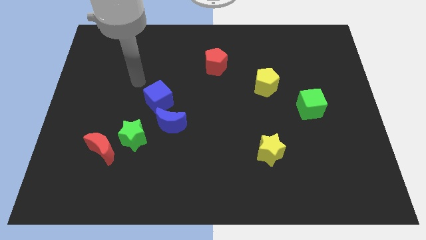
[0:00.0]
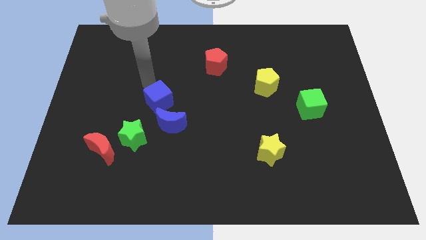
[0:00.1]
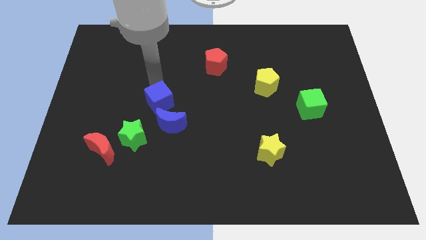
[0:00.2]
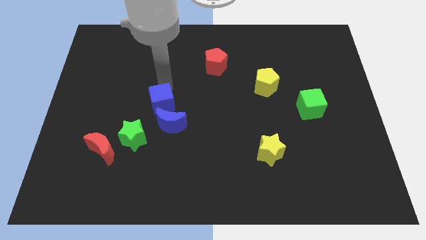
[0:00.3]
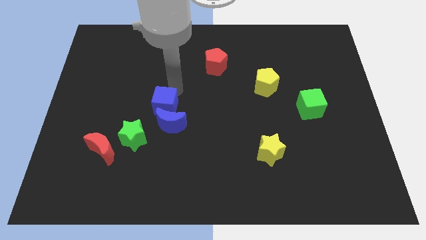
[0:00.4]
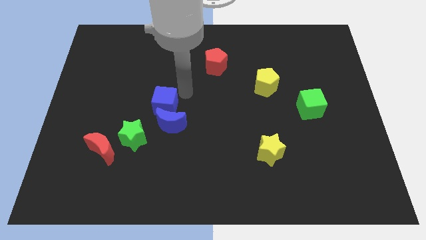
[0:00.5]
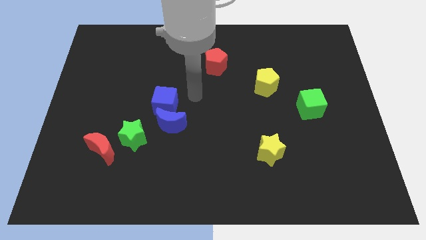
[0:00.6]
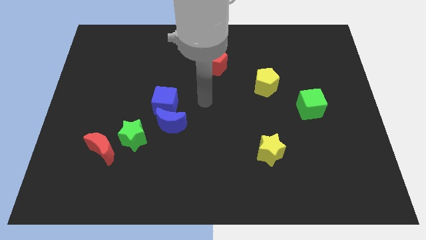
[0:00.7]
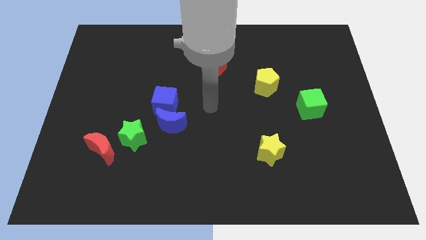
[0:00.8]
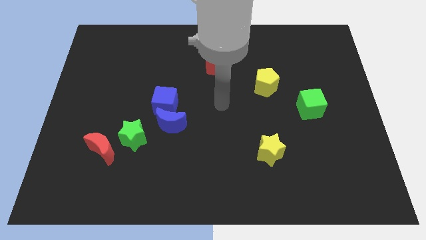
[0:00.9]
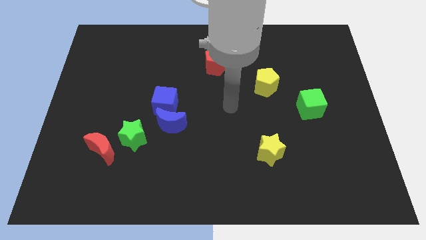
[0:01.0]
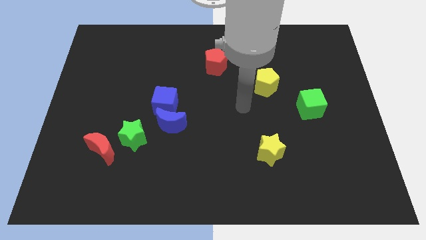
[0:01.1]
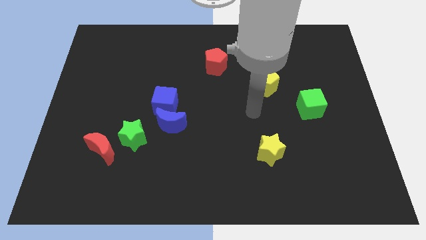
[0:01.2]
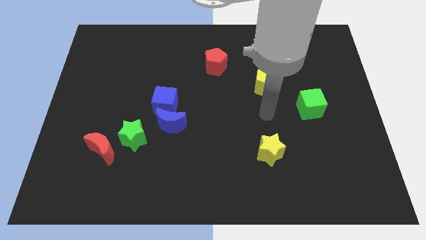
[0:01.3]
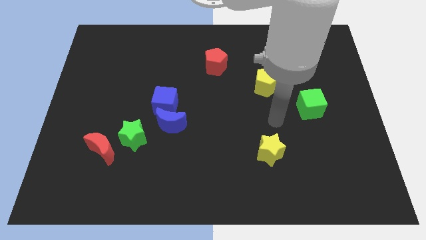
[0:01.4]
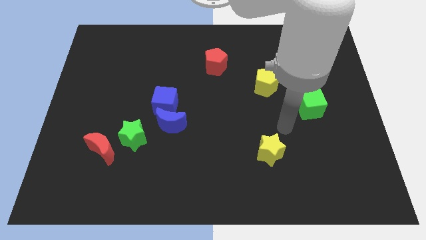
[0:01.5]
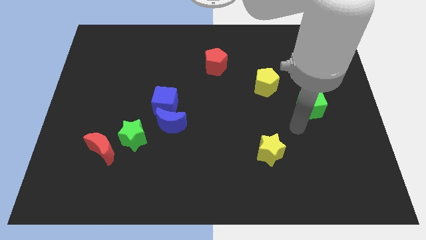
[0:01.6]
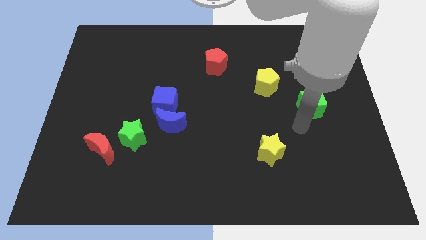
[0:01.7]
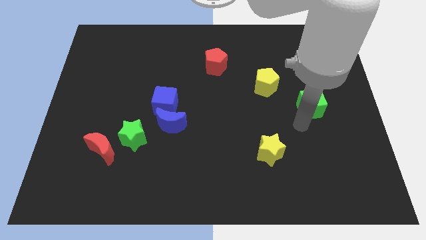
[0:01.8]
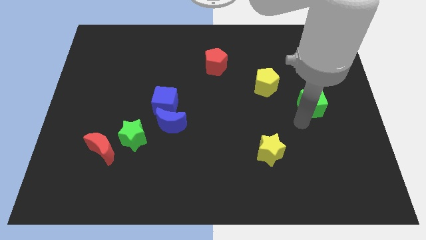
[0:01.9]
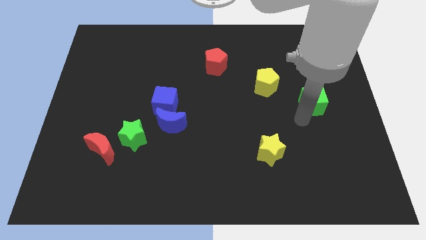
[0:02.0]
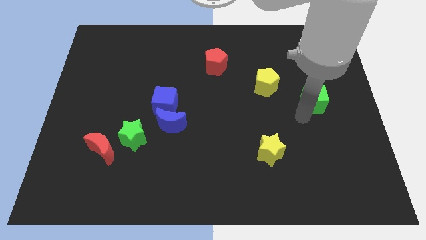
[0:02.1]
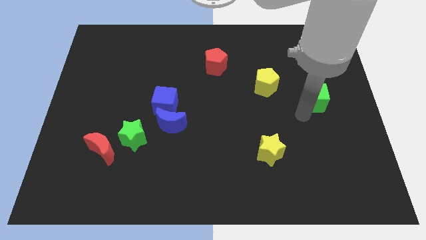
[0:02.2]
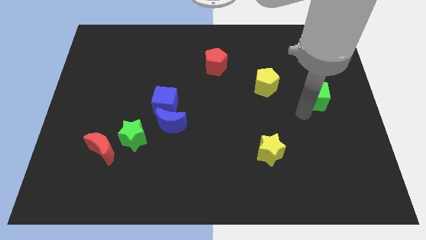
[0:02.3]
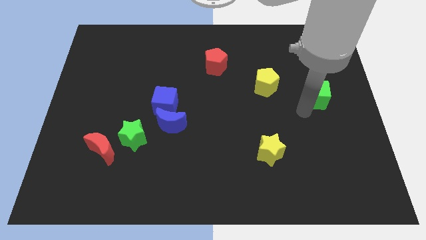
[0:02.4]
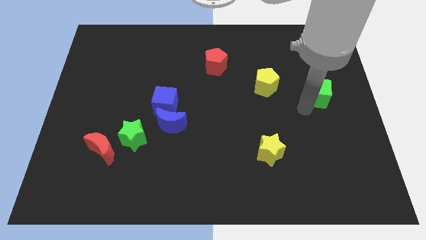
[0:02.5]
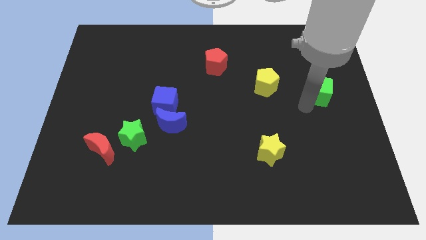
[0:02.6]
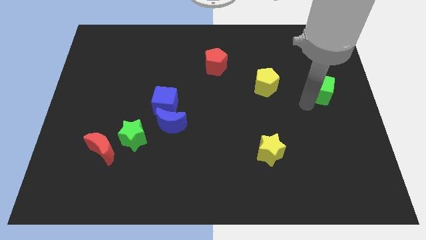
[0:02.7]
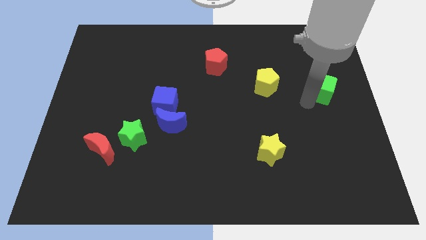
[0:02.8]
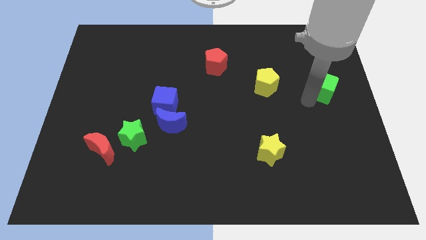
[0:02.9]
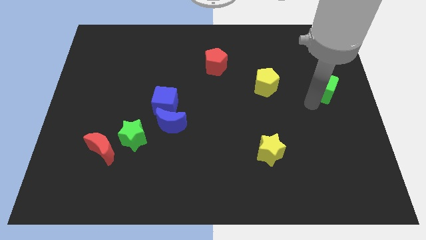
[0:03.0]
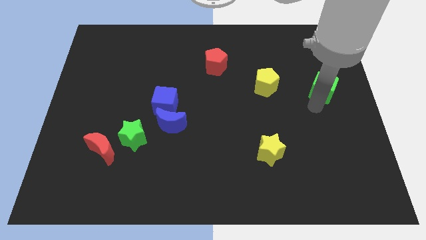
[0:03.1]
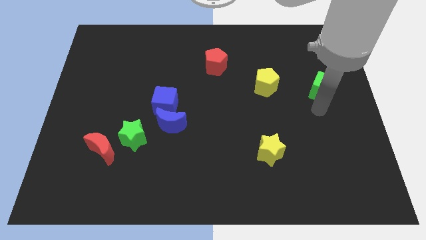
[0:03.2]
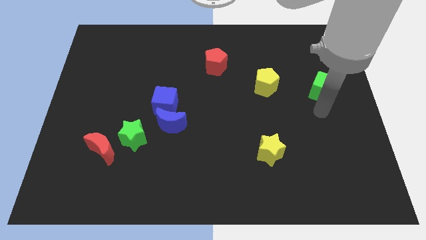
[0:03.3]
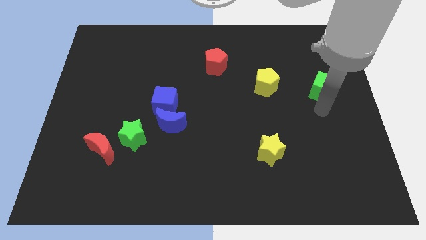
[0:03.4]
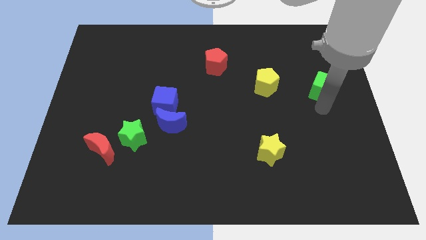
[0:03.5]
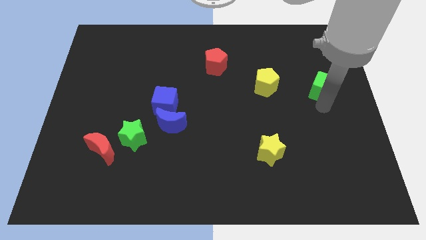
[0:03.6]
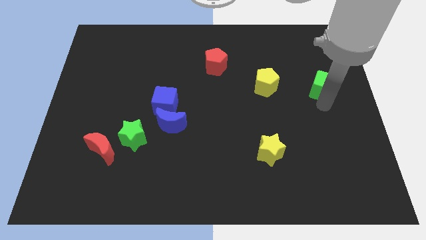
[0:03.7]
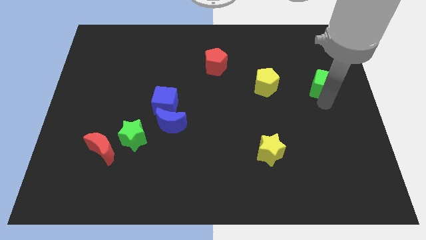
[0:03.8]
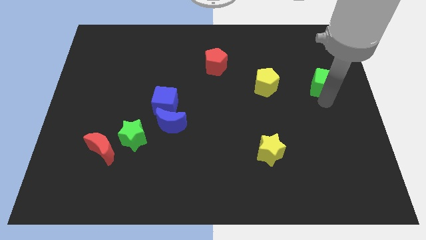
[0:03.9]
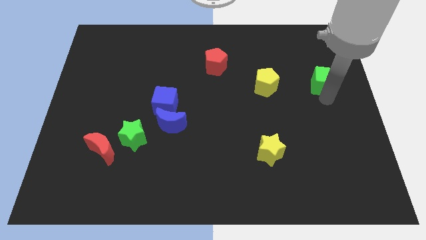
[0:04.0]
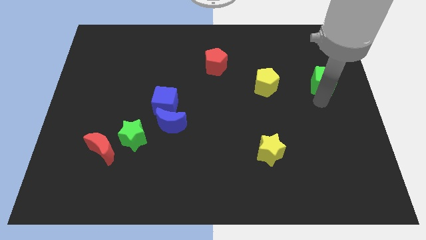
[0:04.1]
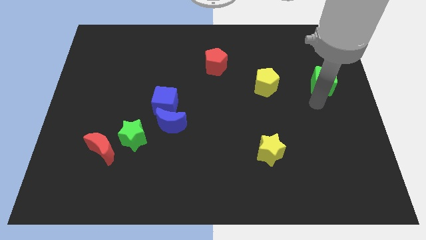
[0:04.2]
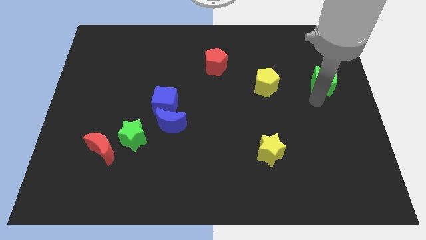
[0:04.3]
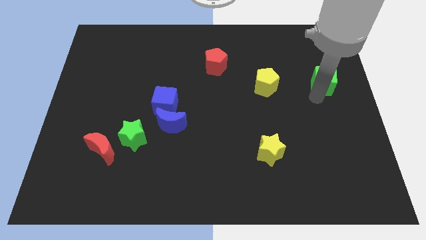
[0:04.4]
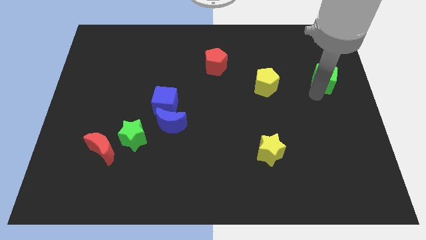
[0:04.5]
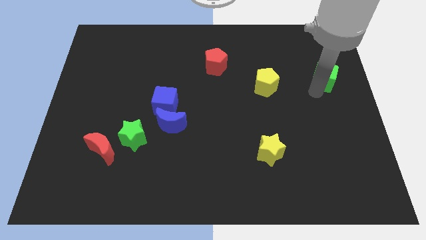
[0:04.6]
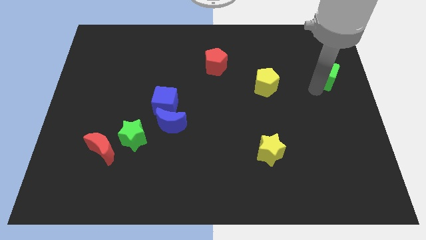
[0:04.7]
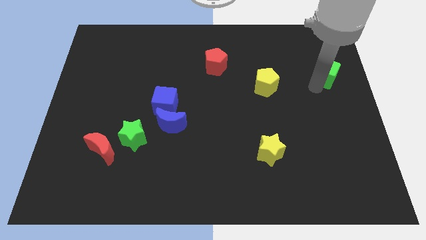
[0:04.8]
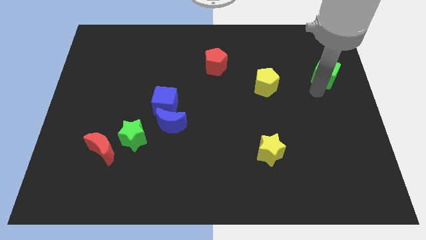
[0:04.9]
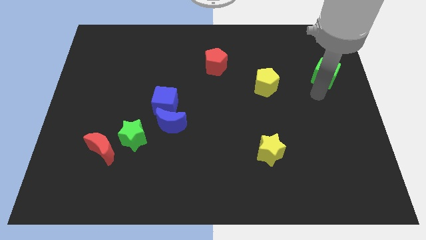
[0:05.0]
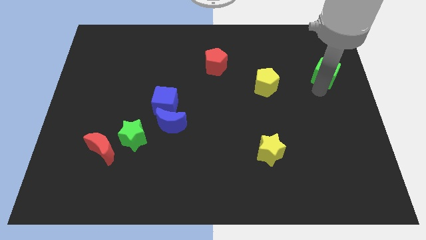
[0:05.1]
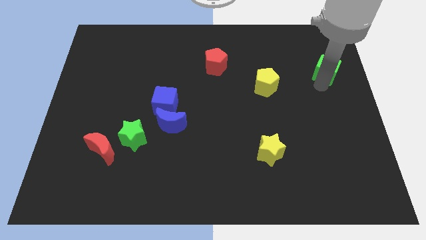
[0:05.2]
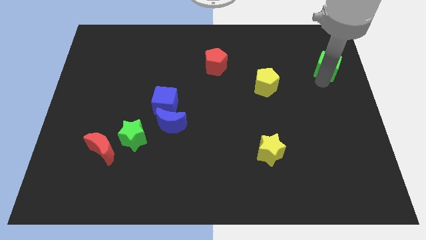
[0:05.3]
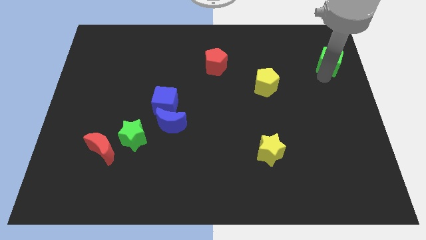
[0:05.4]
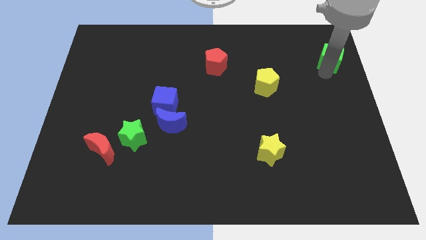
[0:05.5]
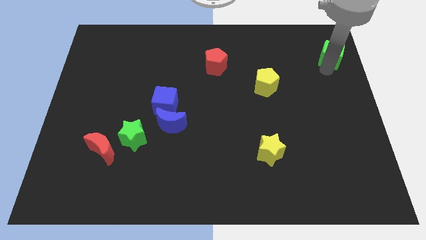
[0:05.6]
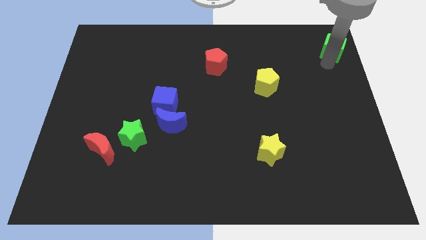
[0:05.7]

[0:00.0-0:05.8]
slide the green cube to the top right

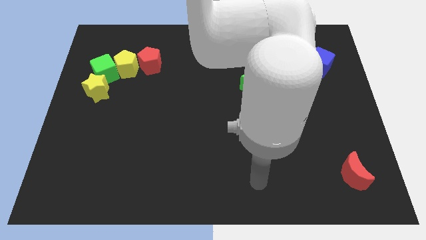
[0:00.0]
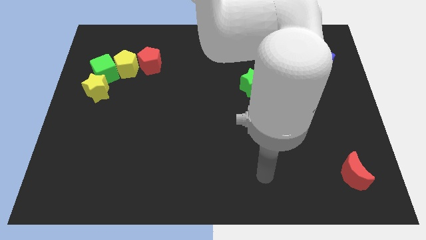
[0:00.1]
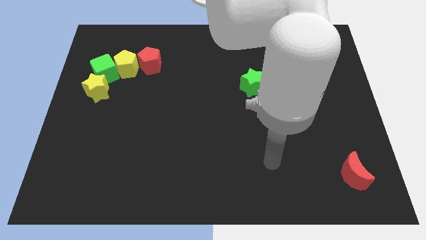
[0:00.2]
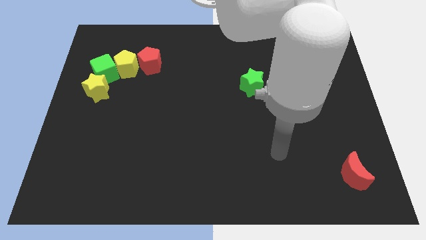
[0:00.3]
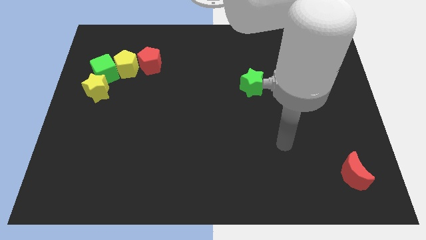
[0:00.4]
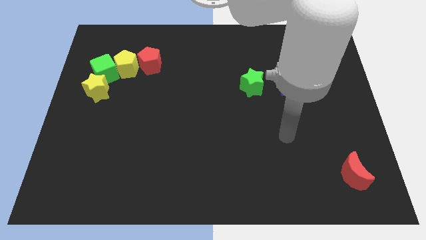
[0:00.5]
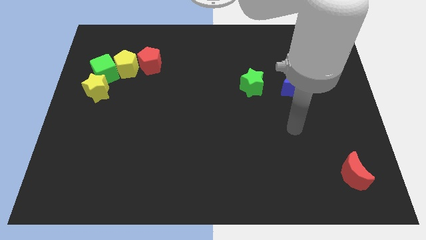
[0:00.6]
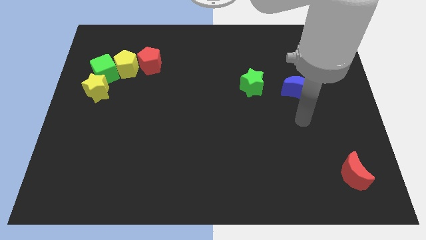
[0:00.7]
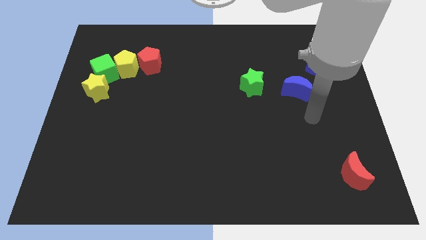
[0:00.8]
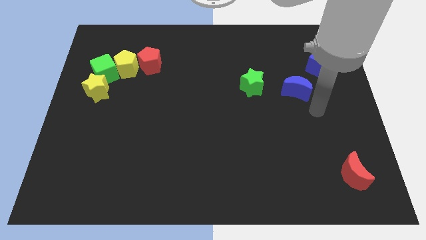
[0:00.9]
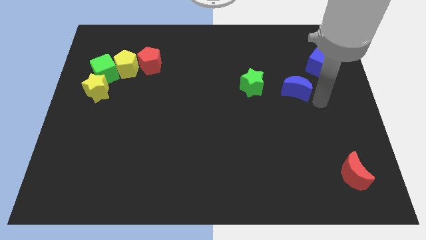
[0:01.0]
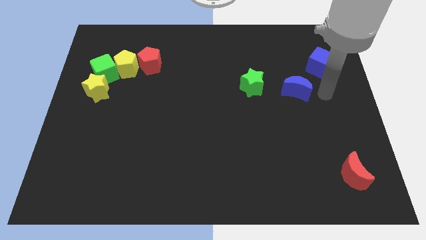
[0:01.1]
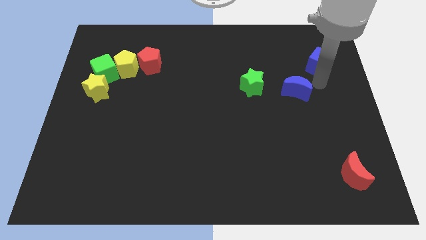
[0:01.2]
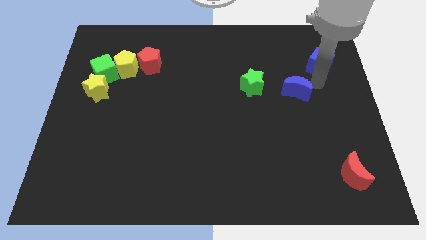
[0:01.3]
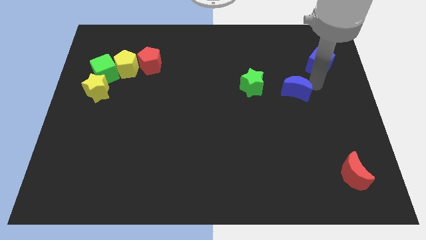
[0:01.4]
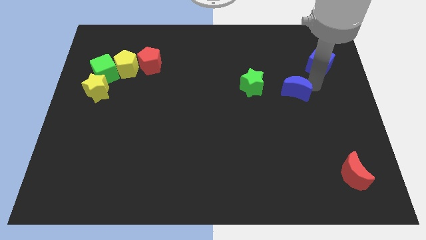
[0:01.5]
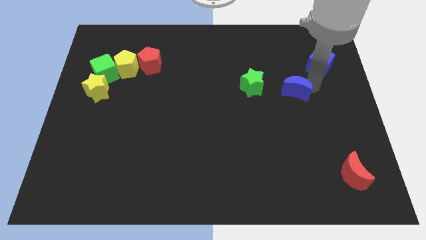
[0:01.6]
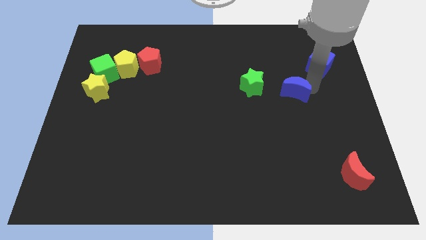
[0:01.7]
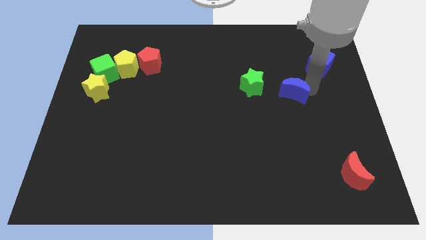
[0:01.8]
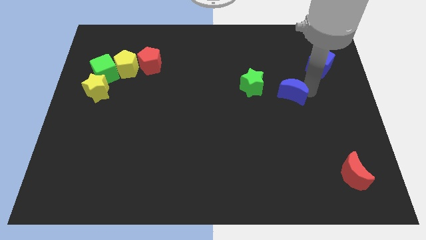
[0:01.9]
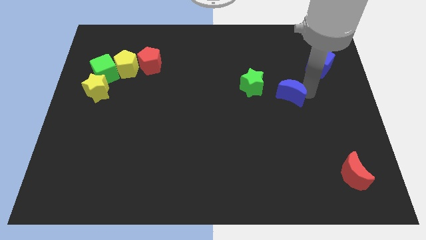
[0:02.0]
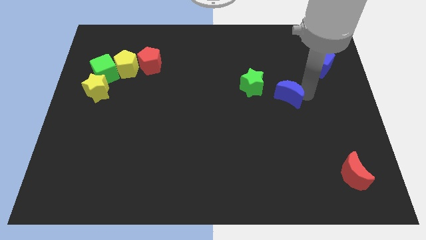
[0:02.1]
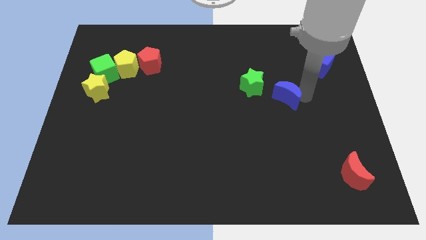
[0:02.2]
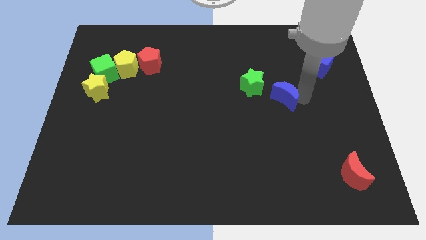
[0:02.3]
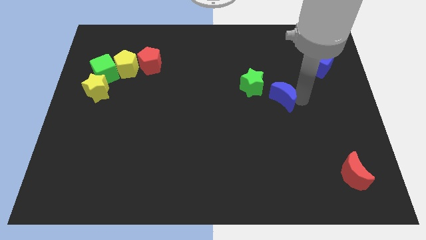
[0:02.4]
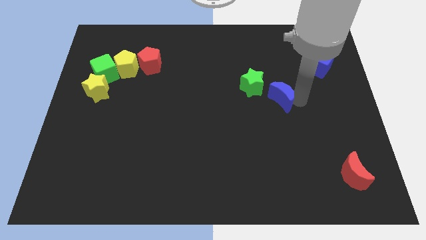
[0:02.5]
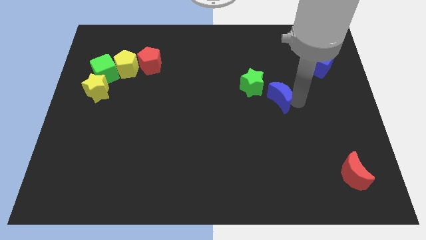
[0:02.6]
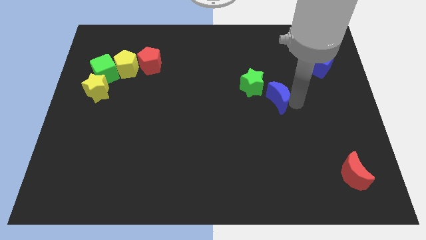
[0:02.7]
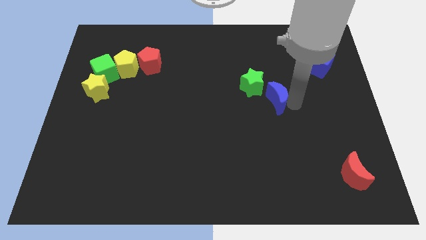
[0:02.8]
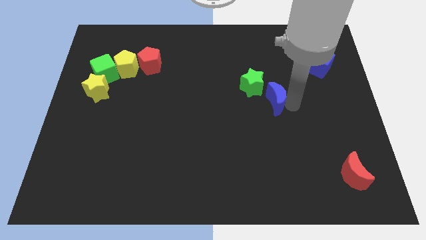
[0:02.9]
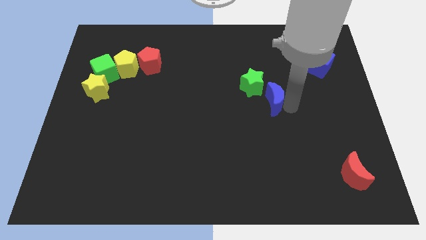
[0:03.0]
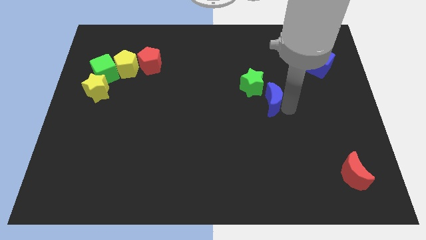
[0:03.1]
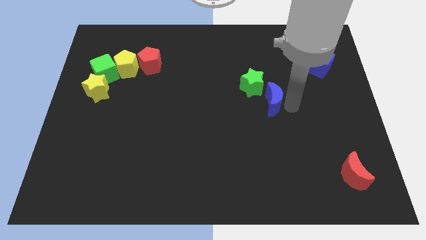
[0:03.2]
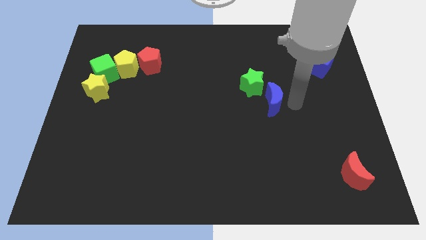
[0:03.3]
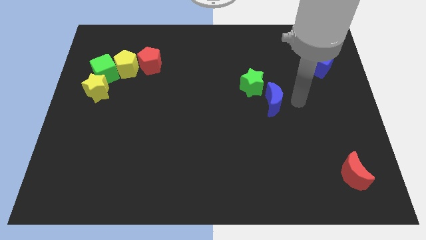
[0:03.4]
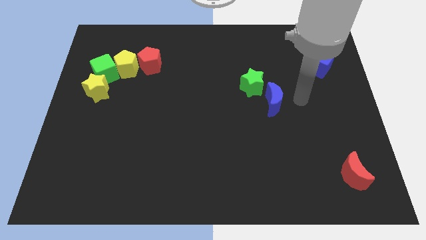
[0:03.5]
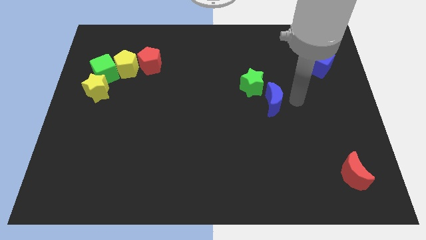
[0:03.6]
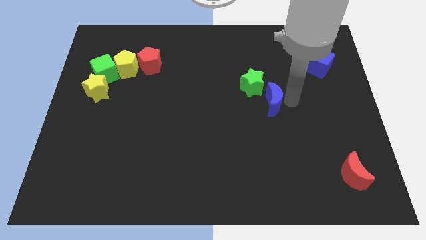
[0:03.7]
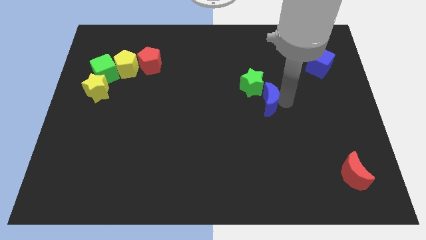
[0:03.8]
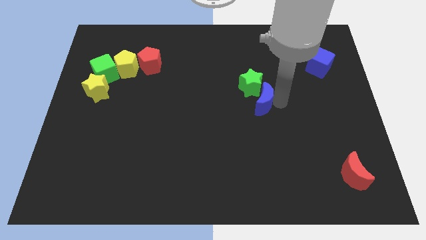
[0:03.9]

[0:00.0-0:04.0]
slide the blue moon to the center of the board
